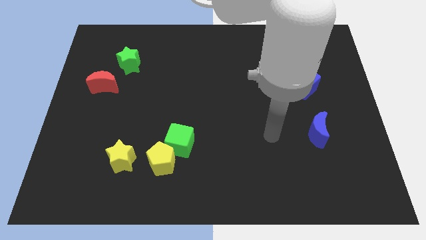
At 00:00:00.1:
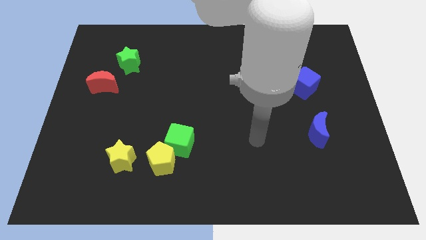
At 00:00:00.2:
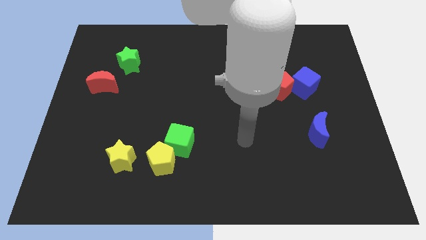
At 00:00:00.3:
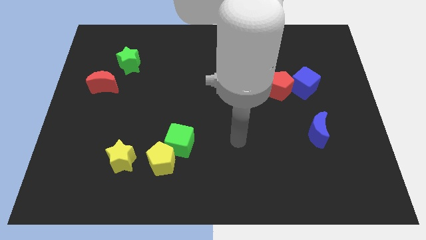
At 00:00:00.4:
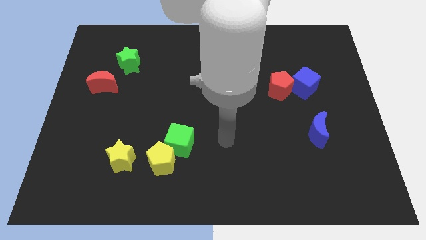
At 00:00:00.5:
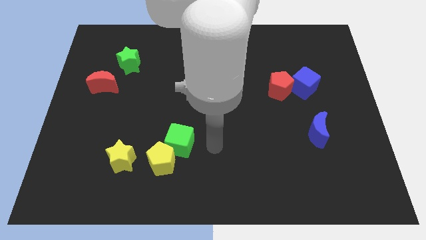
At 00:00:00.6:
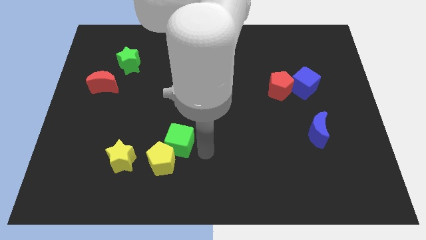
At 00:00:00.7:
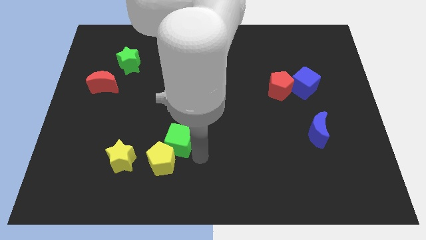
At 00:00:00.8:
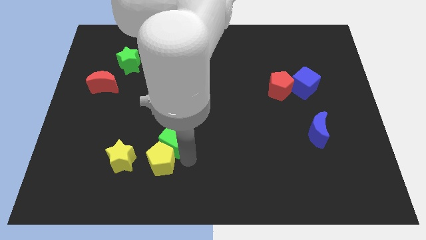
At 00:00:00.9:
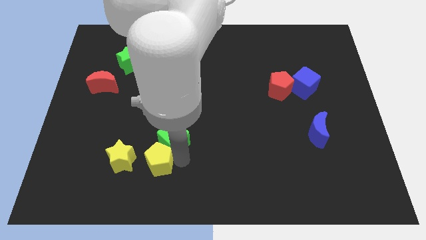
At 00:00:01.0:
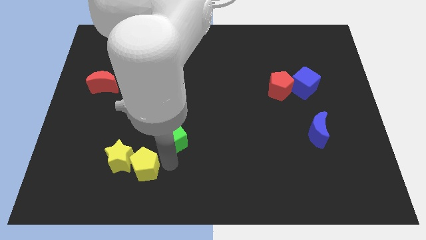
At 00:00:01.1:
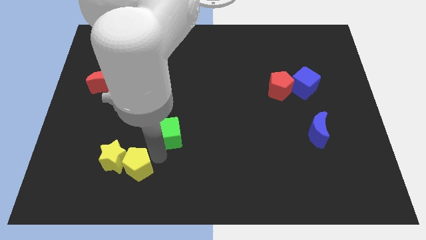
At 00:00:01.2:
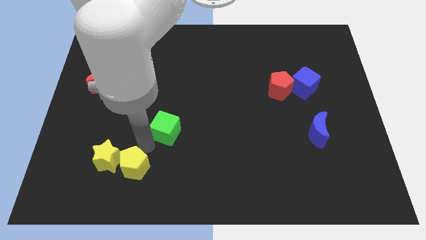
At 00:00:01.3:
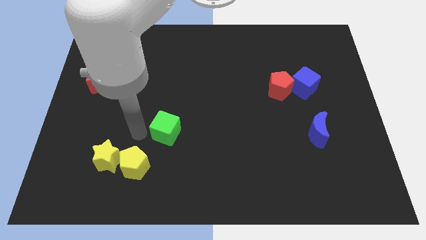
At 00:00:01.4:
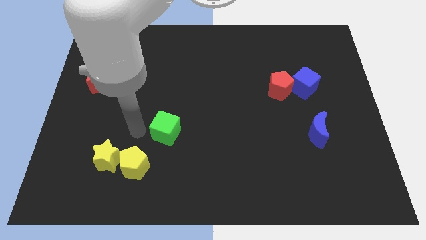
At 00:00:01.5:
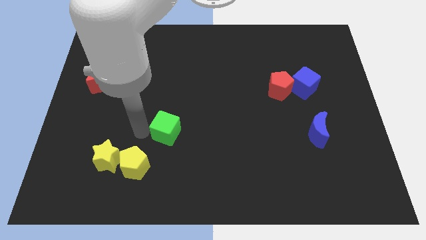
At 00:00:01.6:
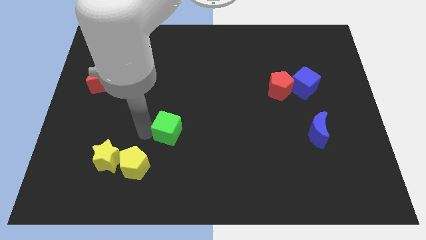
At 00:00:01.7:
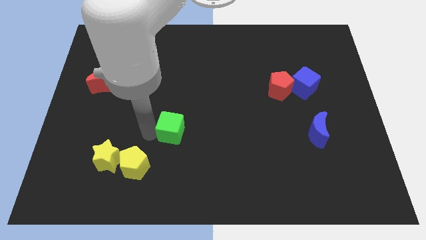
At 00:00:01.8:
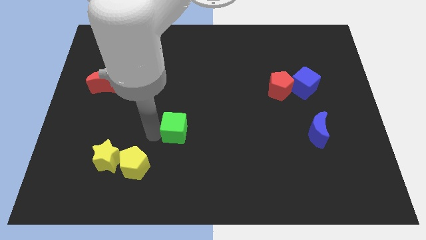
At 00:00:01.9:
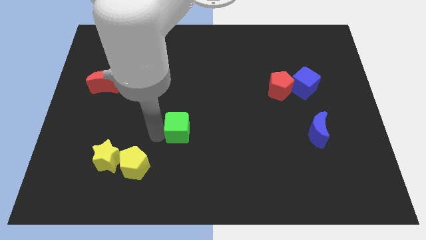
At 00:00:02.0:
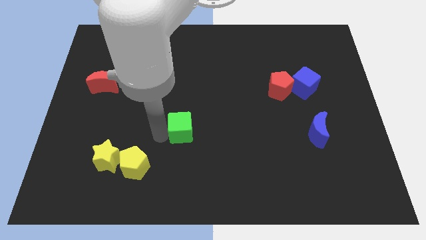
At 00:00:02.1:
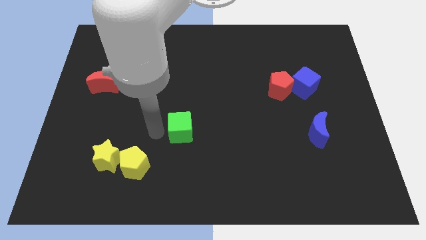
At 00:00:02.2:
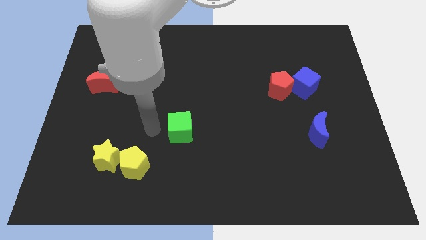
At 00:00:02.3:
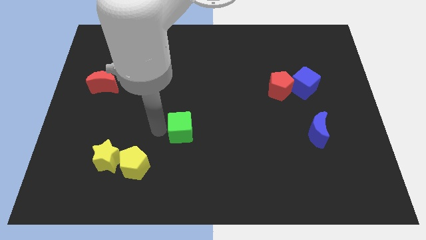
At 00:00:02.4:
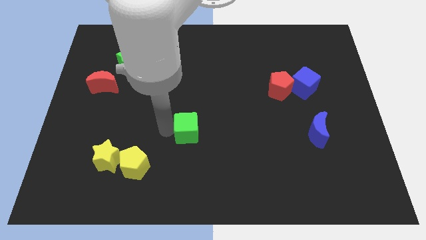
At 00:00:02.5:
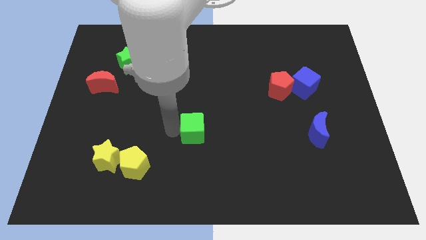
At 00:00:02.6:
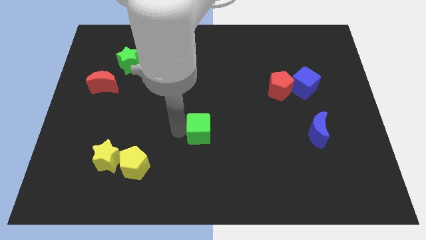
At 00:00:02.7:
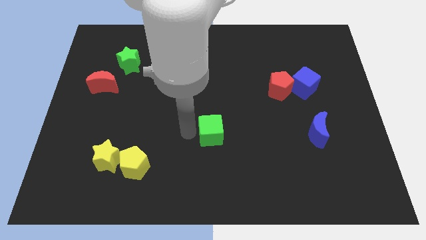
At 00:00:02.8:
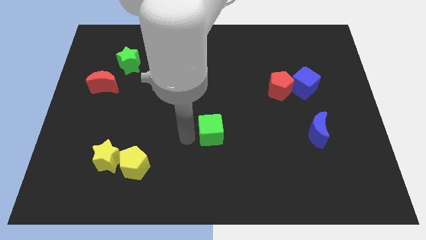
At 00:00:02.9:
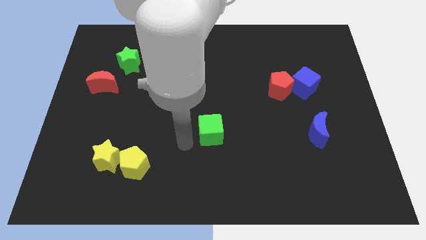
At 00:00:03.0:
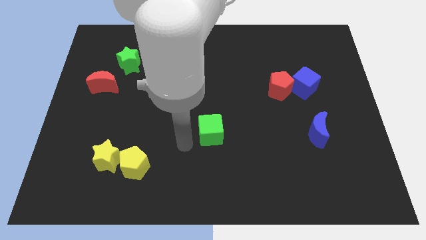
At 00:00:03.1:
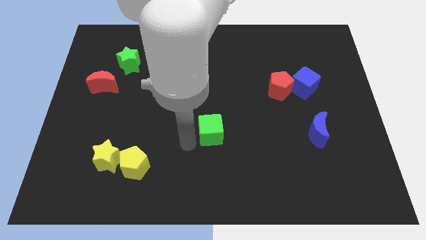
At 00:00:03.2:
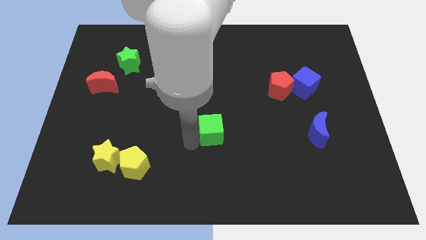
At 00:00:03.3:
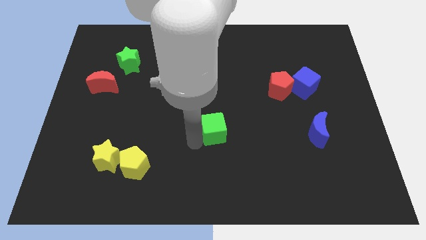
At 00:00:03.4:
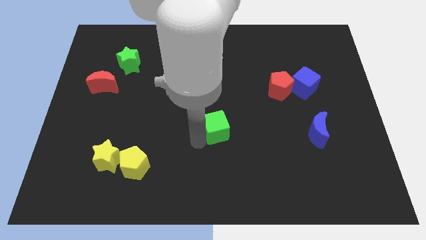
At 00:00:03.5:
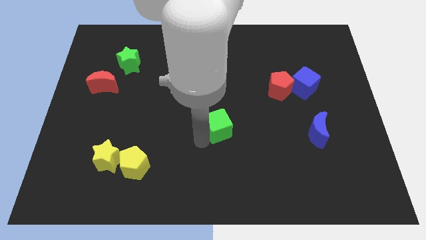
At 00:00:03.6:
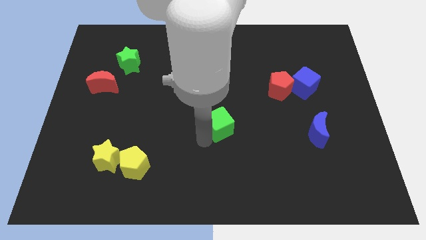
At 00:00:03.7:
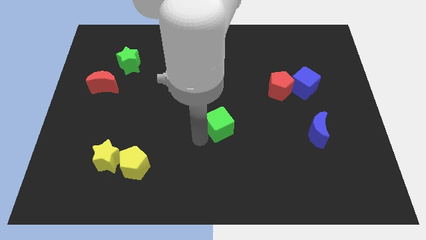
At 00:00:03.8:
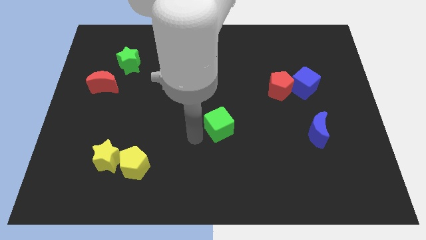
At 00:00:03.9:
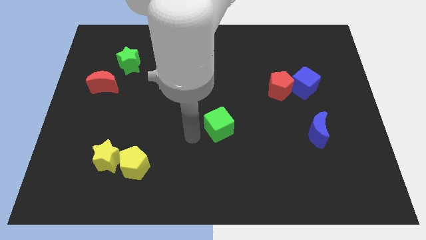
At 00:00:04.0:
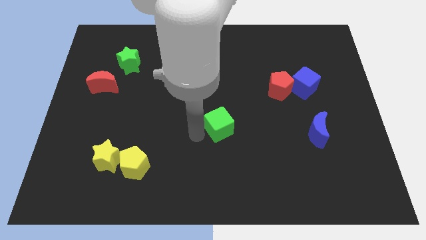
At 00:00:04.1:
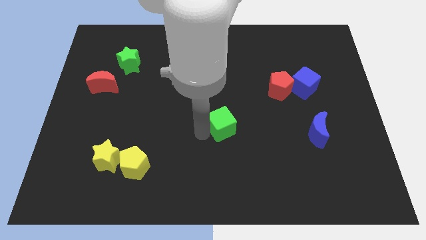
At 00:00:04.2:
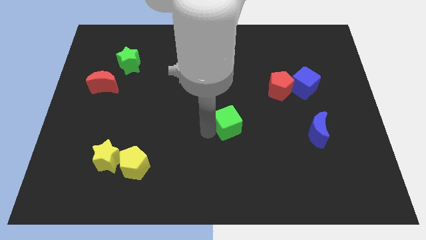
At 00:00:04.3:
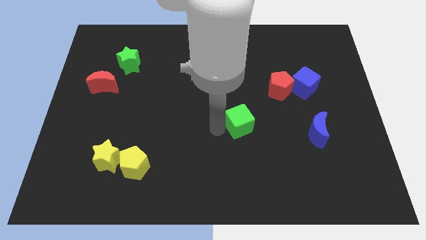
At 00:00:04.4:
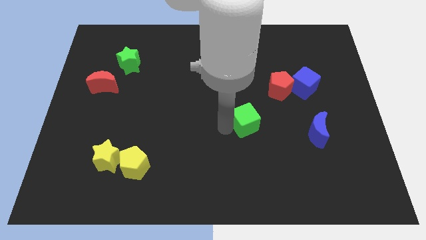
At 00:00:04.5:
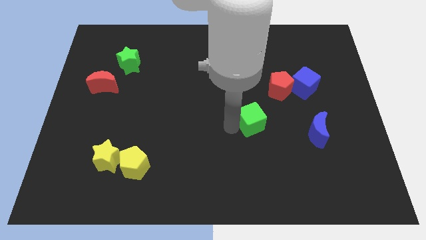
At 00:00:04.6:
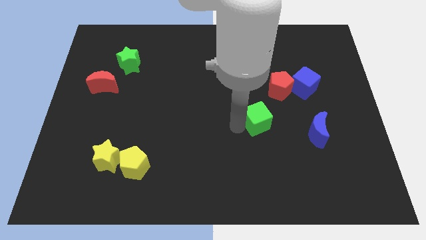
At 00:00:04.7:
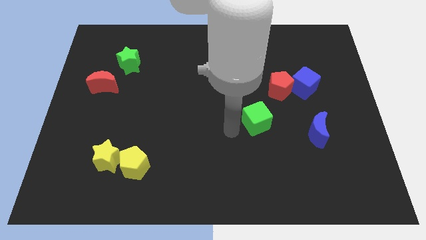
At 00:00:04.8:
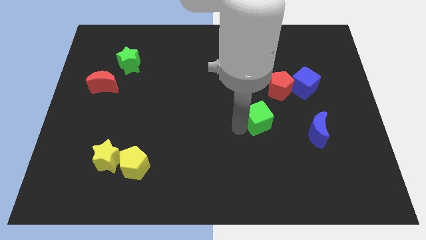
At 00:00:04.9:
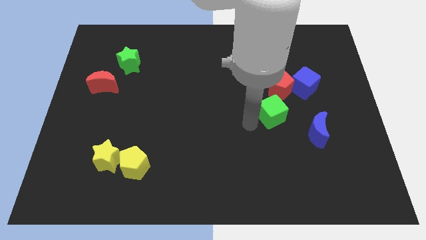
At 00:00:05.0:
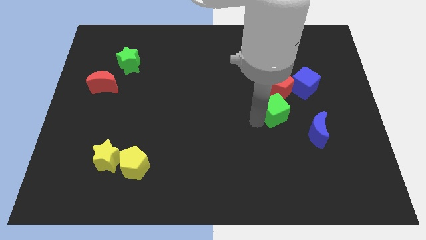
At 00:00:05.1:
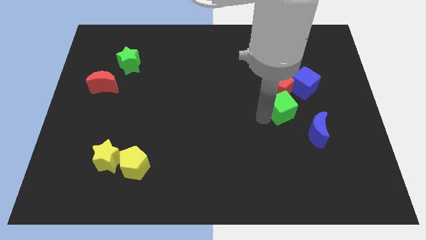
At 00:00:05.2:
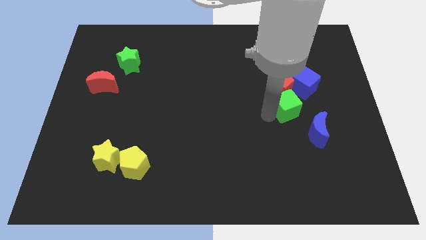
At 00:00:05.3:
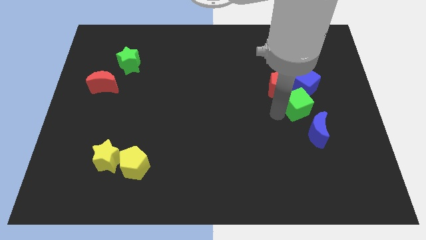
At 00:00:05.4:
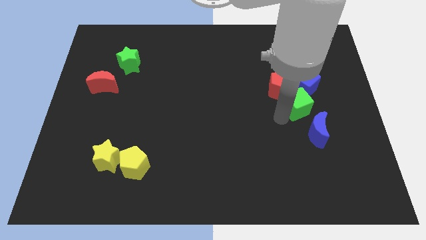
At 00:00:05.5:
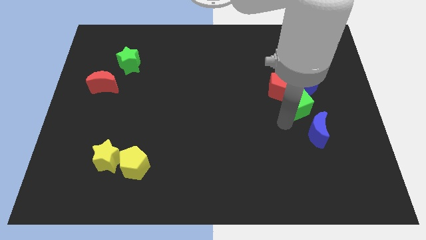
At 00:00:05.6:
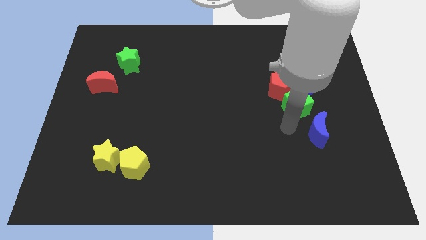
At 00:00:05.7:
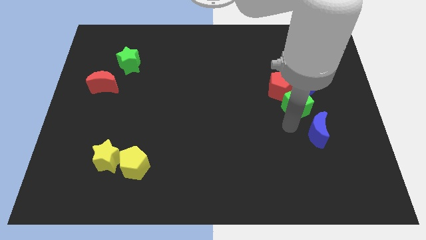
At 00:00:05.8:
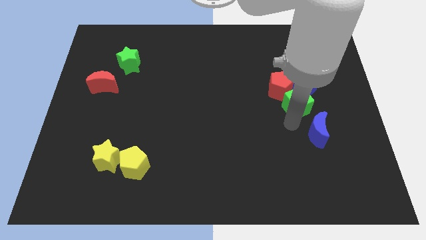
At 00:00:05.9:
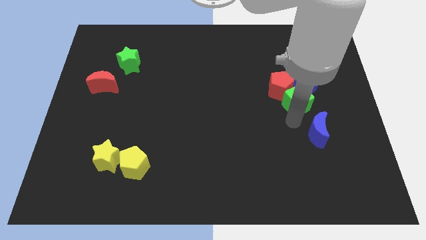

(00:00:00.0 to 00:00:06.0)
slide the green cube towards the blue cube

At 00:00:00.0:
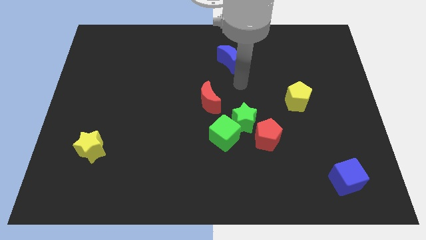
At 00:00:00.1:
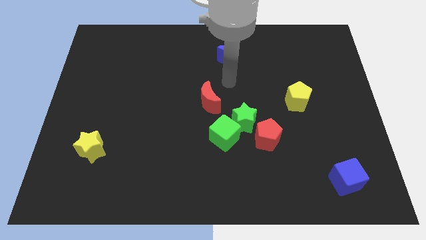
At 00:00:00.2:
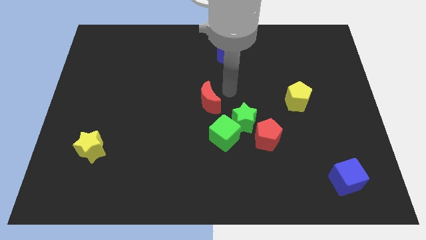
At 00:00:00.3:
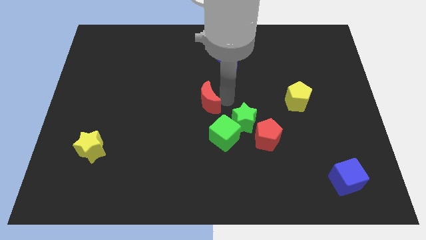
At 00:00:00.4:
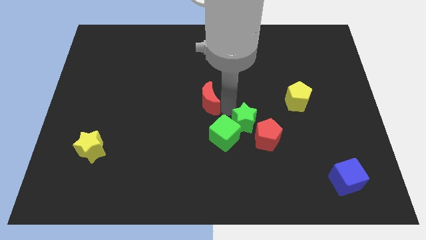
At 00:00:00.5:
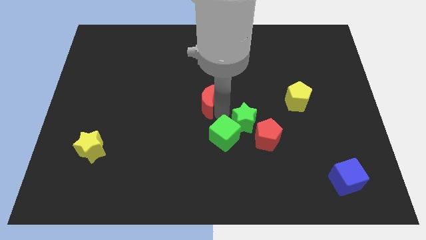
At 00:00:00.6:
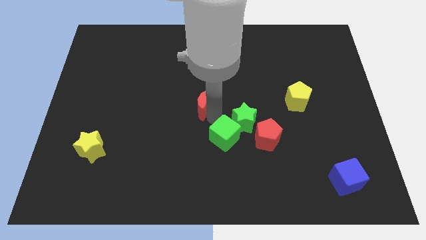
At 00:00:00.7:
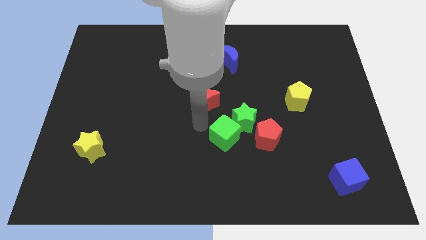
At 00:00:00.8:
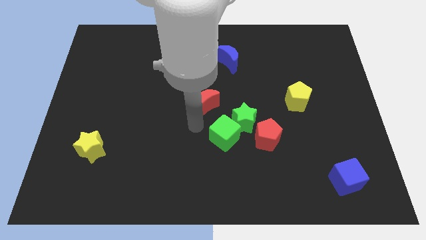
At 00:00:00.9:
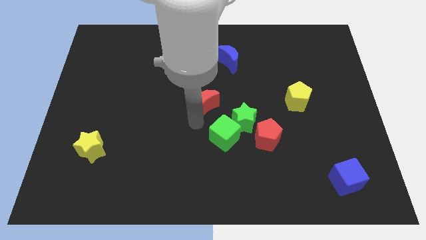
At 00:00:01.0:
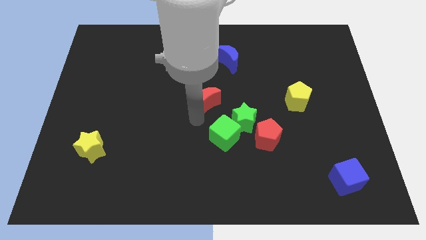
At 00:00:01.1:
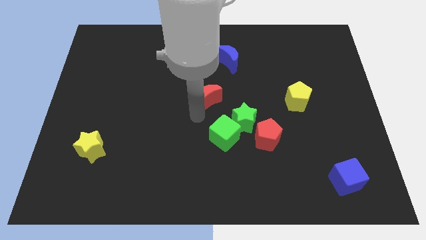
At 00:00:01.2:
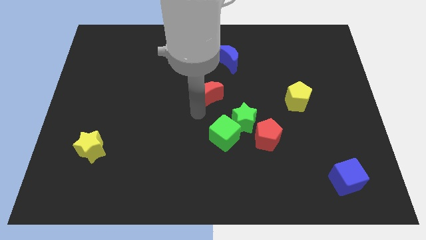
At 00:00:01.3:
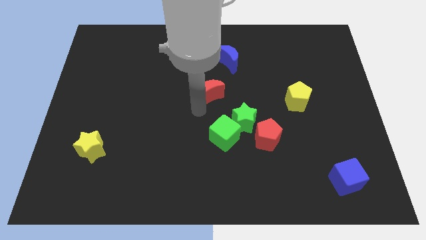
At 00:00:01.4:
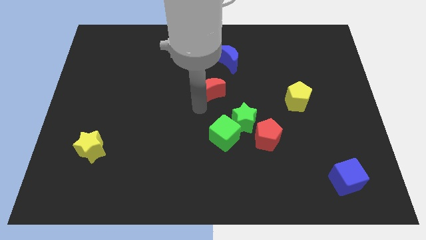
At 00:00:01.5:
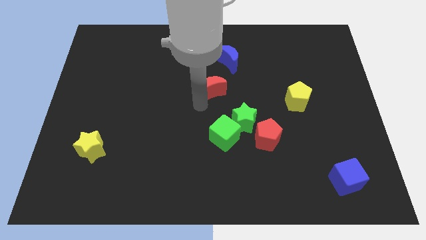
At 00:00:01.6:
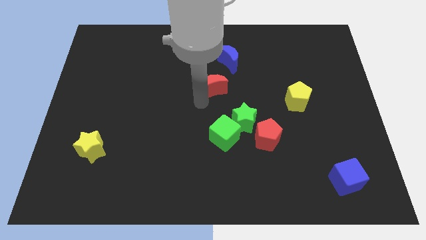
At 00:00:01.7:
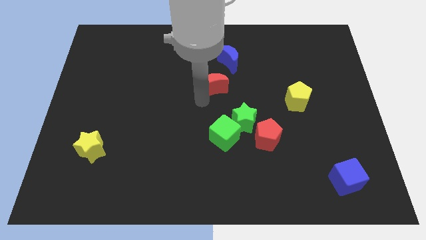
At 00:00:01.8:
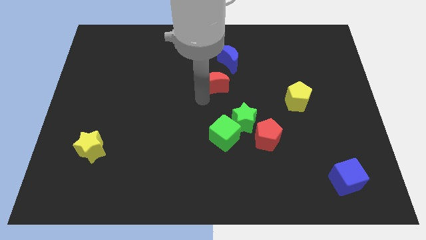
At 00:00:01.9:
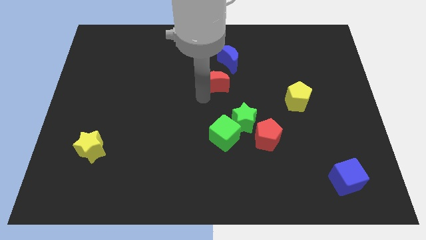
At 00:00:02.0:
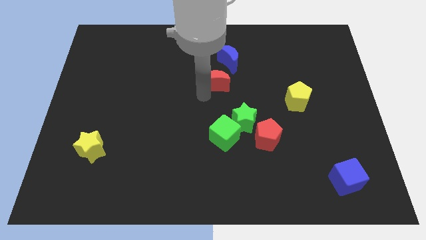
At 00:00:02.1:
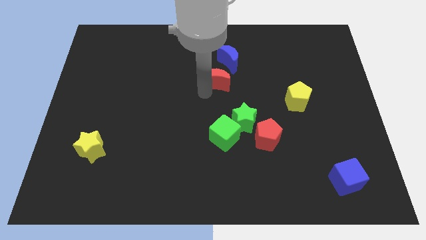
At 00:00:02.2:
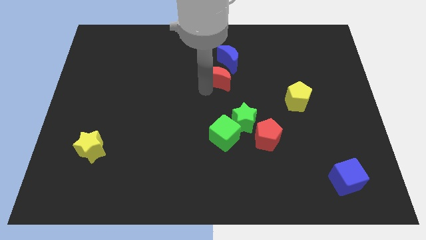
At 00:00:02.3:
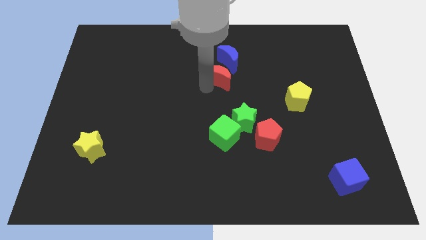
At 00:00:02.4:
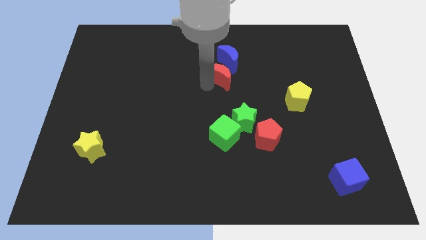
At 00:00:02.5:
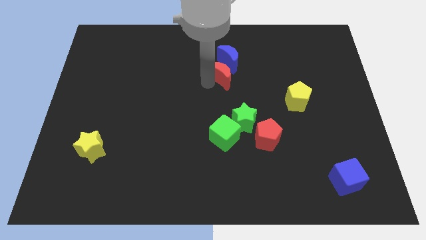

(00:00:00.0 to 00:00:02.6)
move the red moon close to the blue moon
